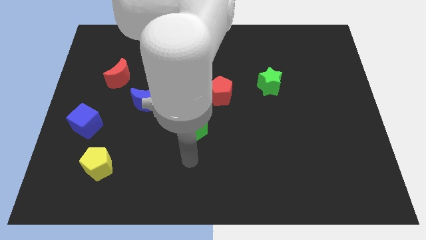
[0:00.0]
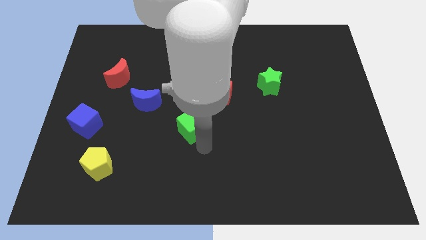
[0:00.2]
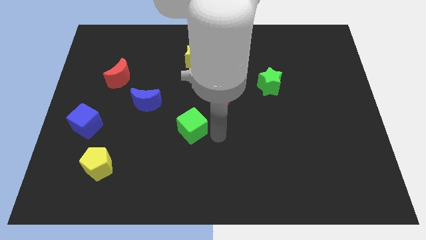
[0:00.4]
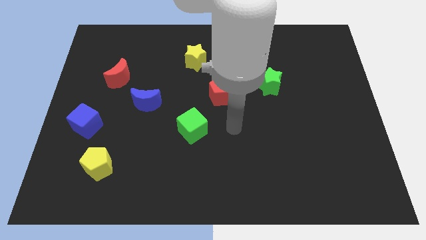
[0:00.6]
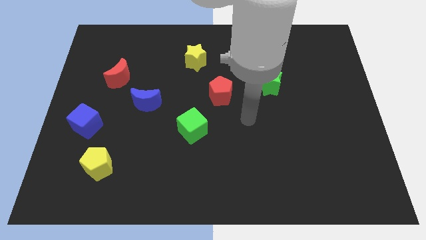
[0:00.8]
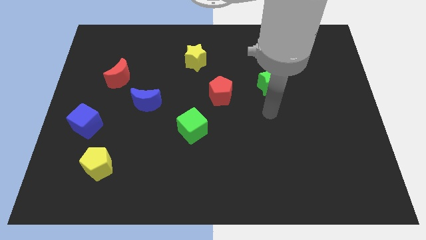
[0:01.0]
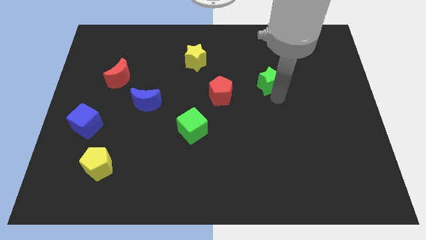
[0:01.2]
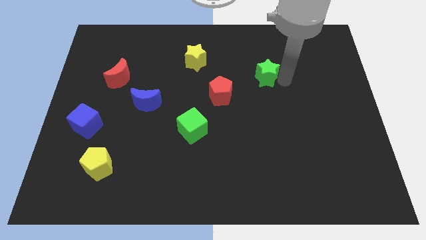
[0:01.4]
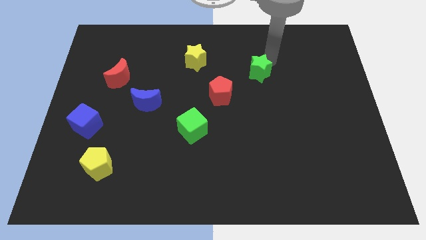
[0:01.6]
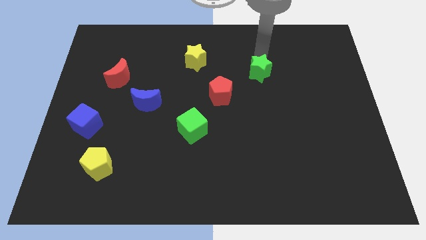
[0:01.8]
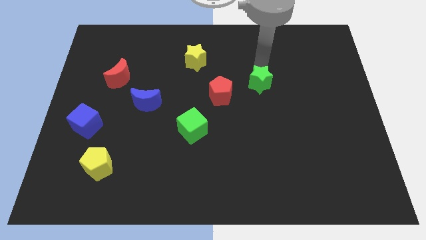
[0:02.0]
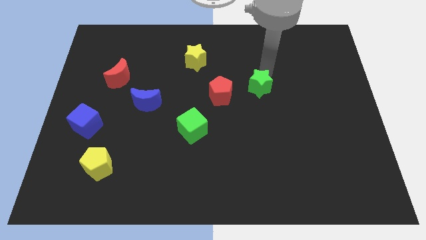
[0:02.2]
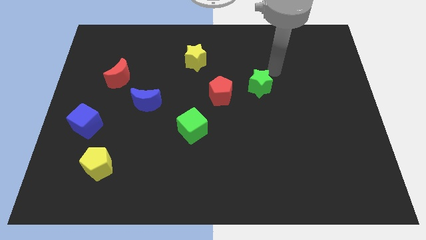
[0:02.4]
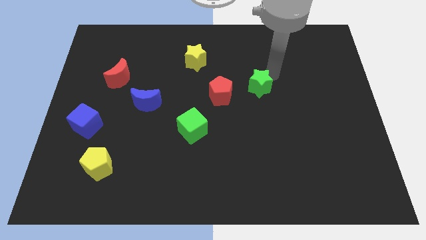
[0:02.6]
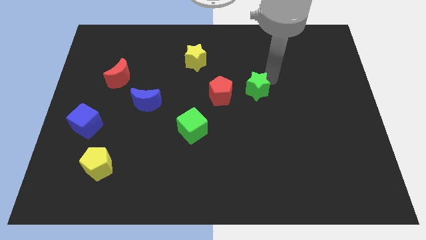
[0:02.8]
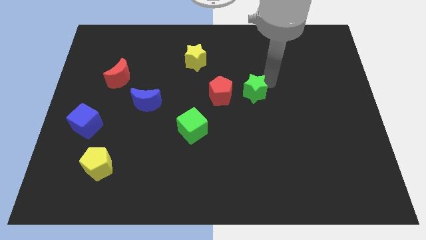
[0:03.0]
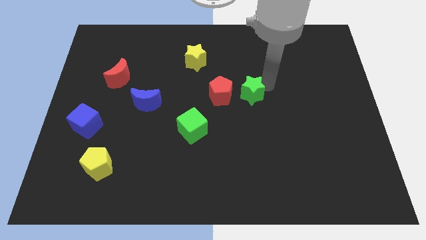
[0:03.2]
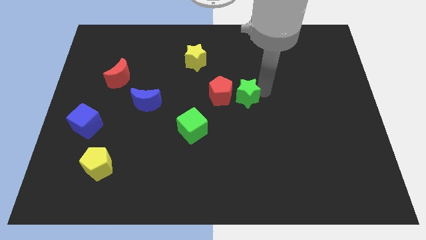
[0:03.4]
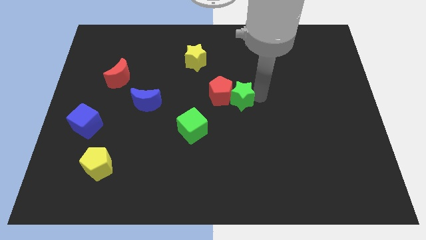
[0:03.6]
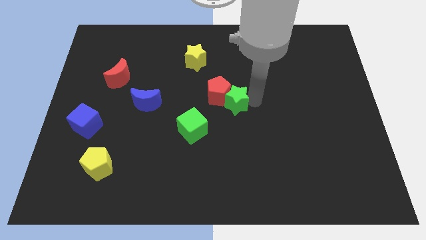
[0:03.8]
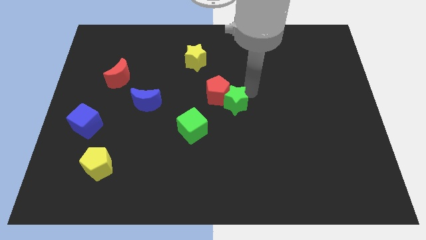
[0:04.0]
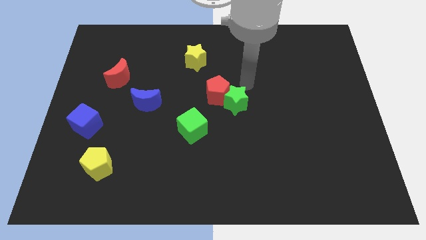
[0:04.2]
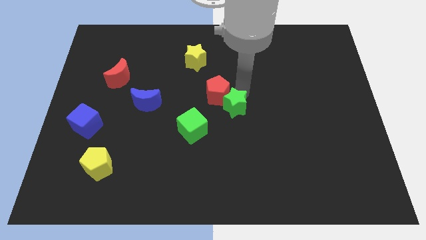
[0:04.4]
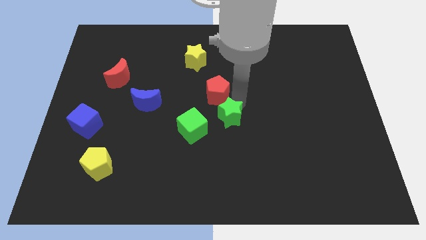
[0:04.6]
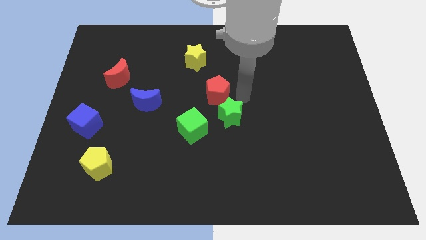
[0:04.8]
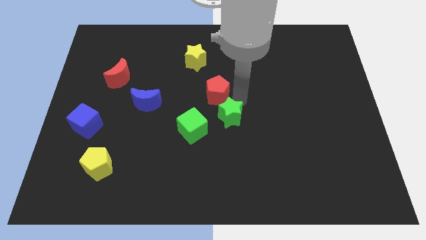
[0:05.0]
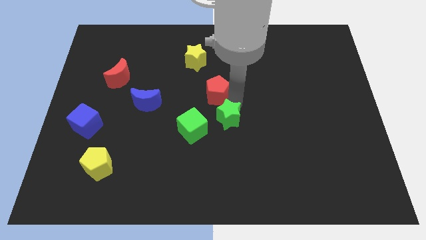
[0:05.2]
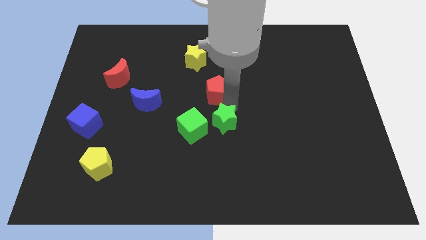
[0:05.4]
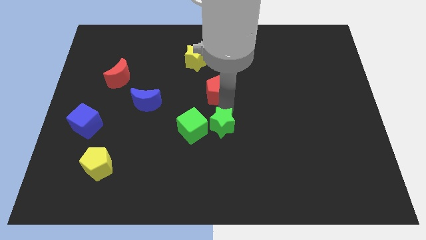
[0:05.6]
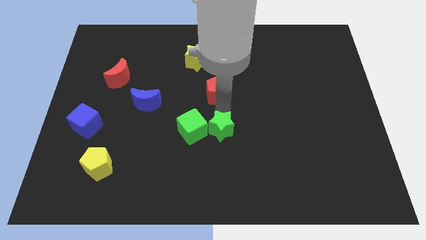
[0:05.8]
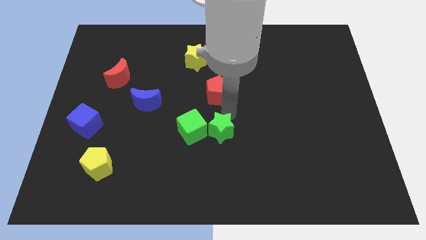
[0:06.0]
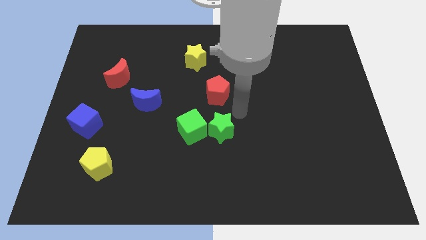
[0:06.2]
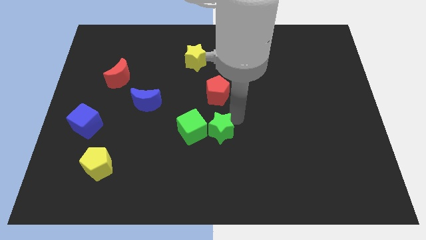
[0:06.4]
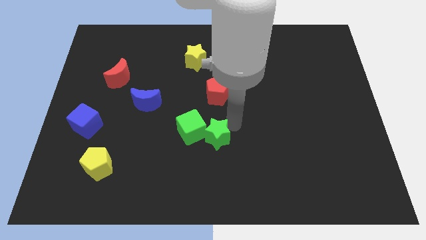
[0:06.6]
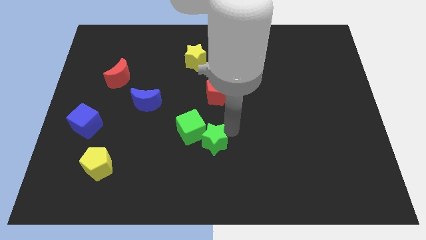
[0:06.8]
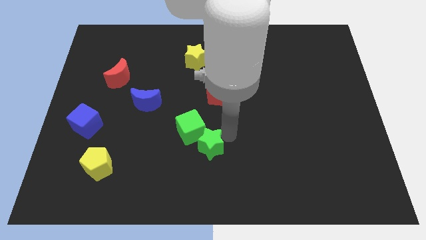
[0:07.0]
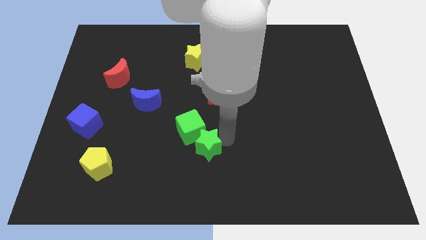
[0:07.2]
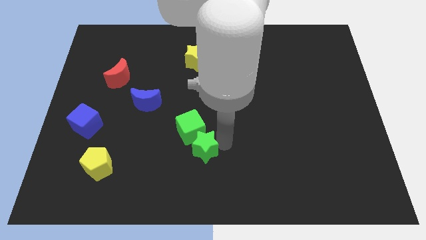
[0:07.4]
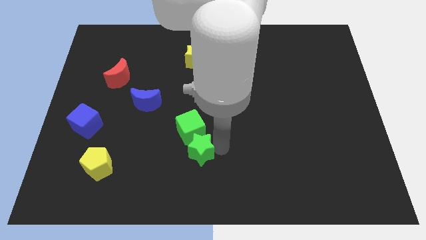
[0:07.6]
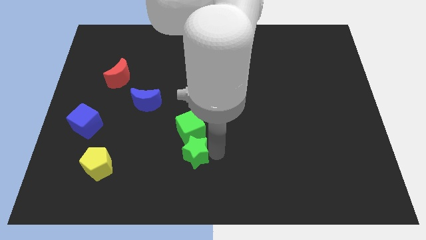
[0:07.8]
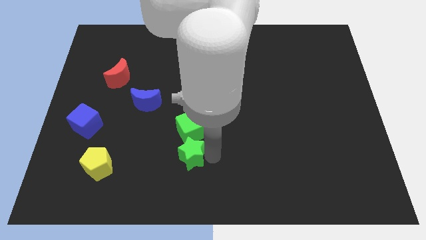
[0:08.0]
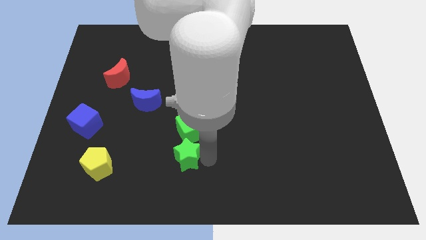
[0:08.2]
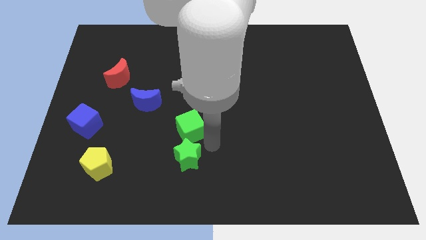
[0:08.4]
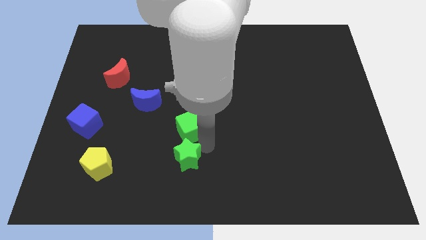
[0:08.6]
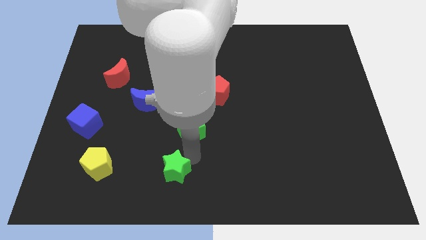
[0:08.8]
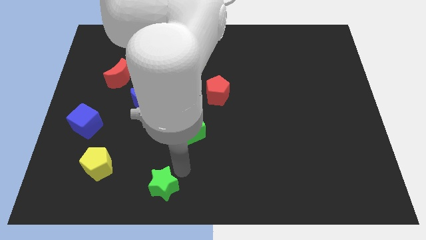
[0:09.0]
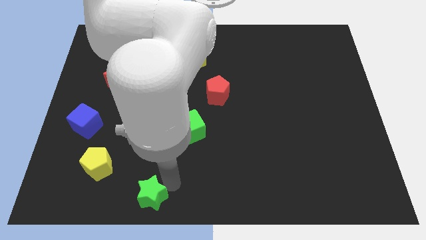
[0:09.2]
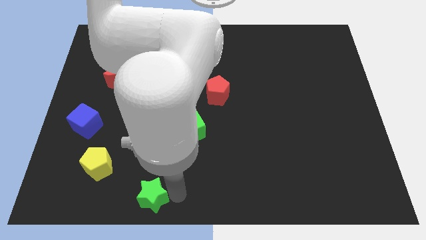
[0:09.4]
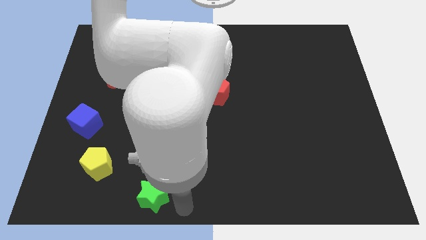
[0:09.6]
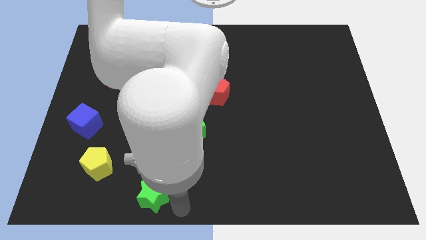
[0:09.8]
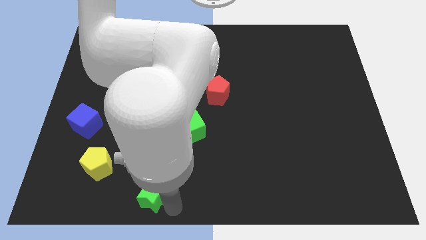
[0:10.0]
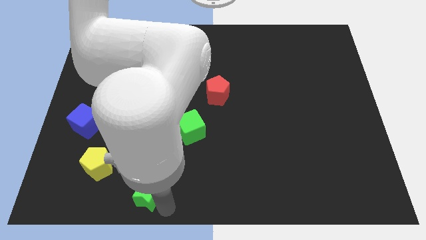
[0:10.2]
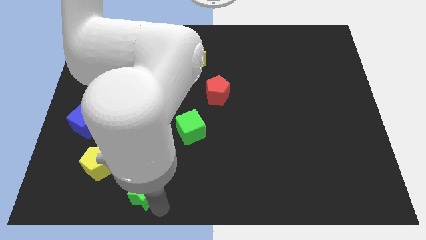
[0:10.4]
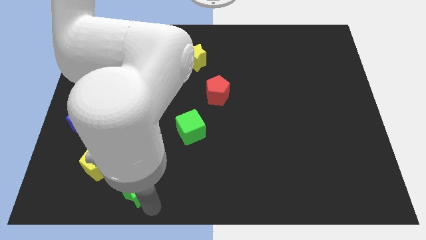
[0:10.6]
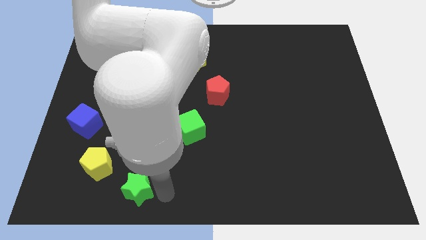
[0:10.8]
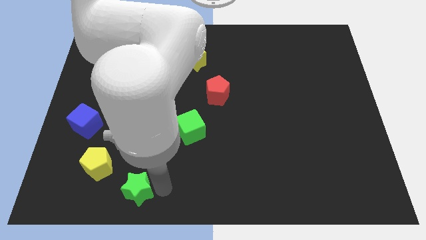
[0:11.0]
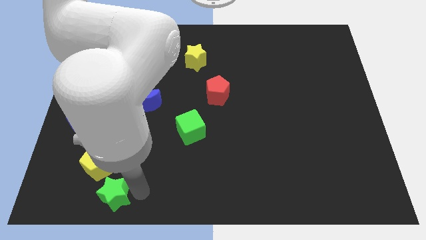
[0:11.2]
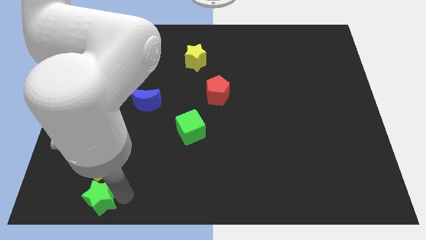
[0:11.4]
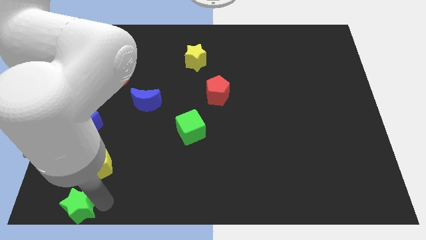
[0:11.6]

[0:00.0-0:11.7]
put the green star to the lower left corner
